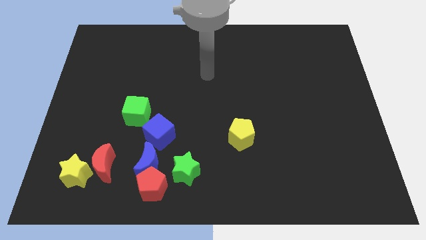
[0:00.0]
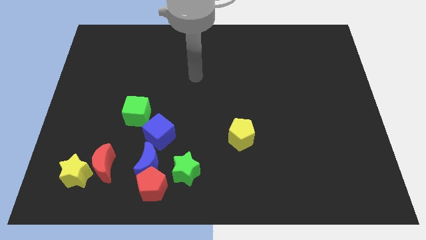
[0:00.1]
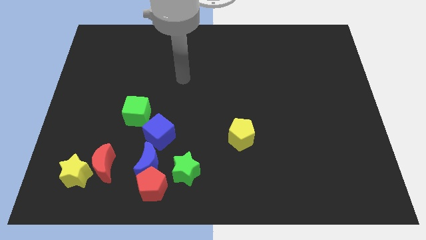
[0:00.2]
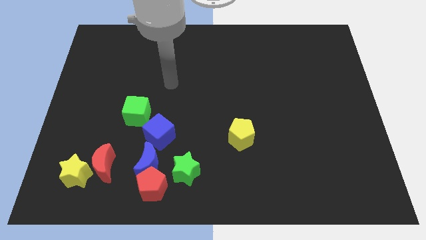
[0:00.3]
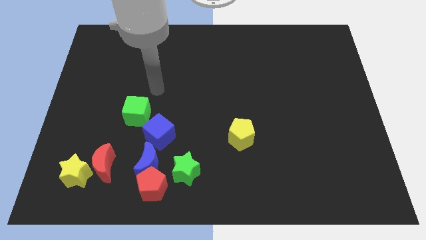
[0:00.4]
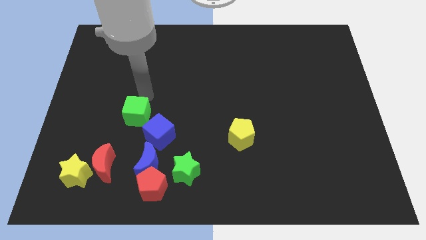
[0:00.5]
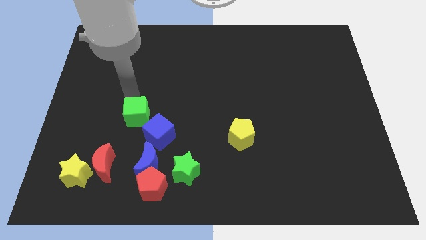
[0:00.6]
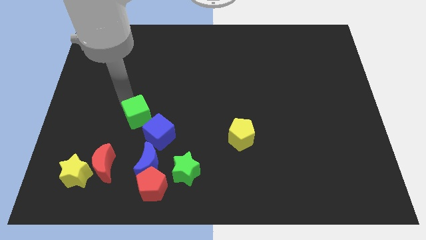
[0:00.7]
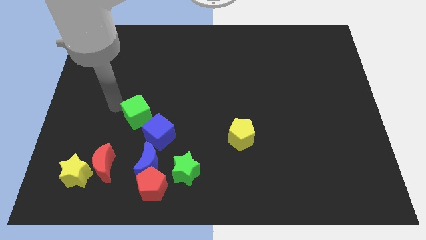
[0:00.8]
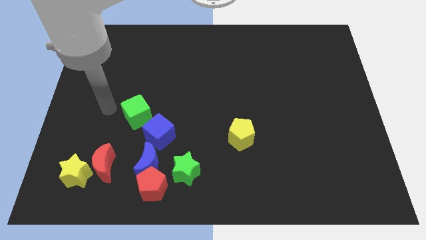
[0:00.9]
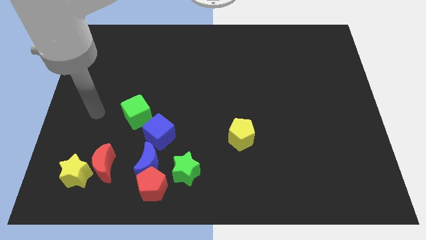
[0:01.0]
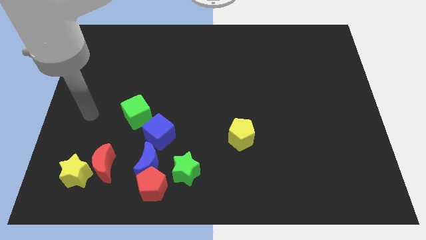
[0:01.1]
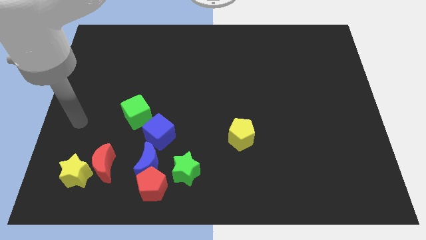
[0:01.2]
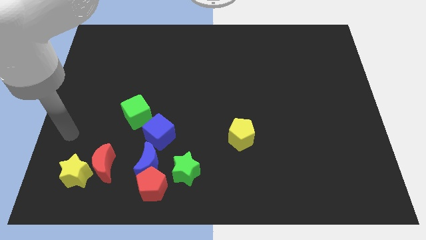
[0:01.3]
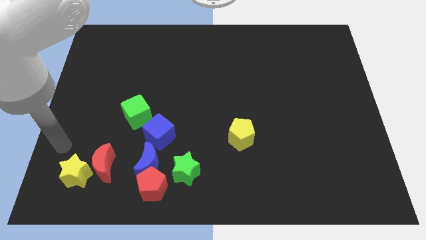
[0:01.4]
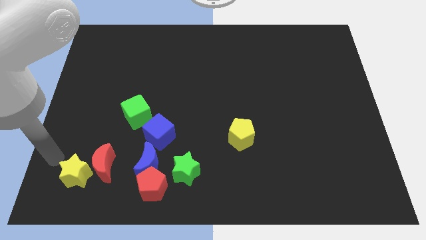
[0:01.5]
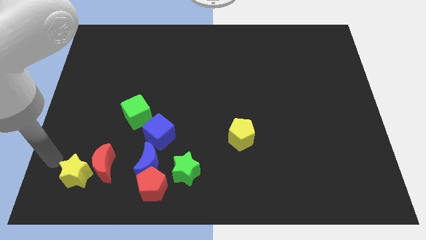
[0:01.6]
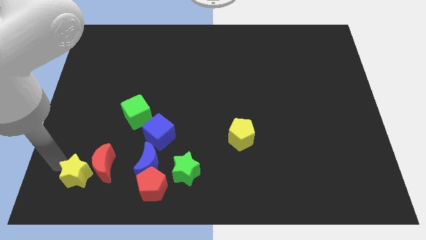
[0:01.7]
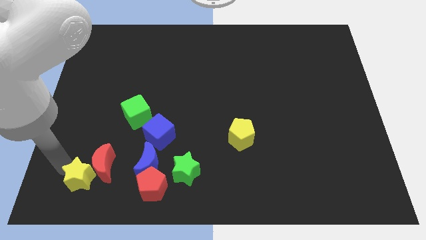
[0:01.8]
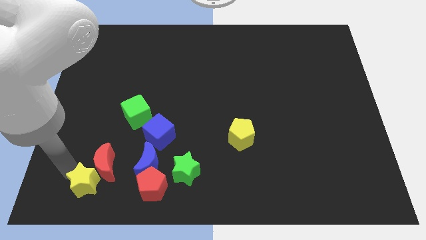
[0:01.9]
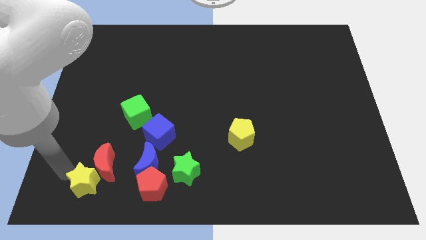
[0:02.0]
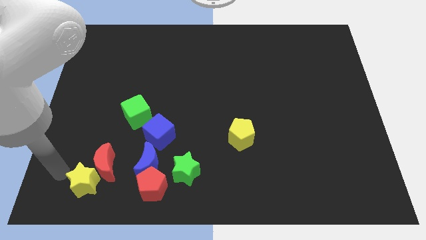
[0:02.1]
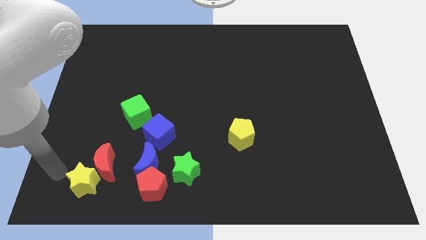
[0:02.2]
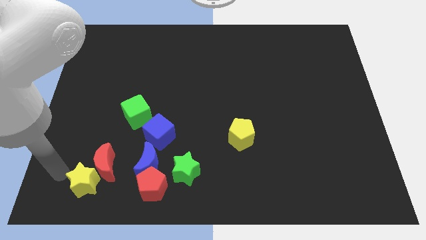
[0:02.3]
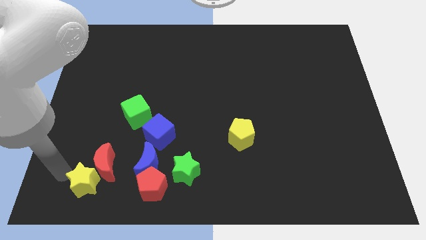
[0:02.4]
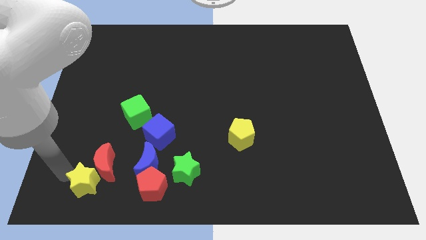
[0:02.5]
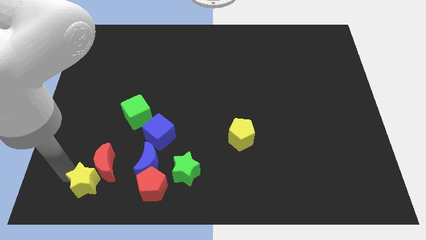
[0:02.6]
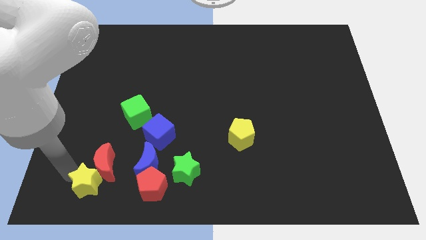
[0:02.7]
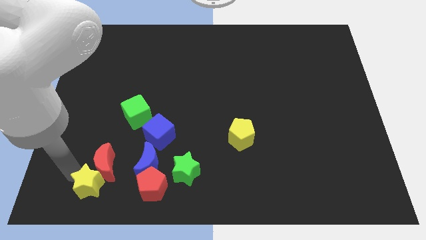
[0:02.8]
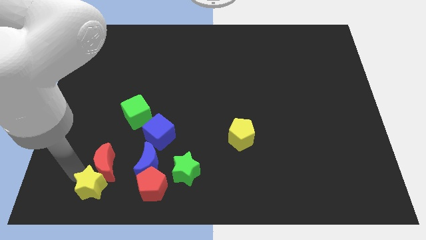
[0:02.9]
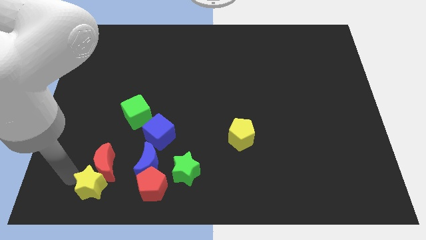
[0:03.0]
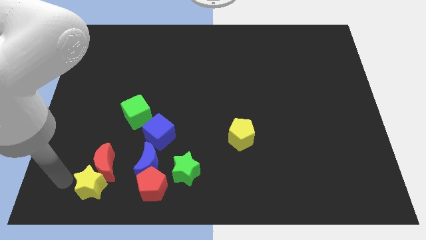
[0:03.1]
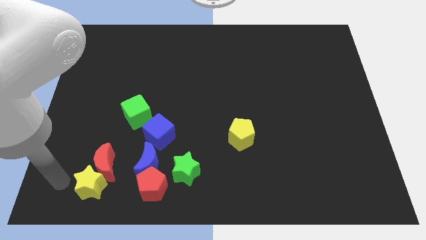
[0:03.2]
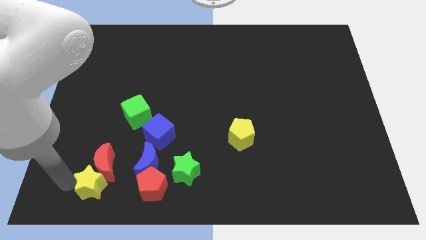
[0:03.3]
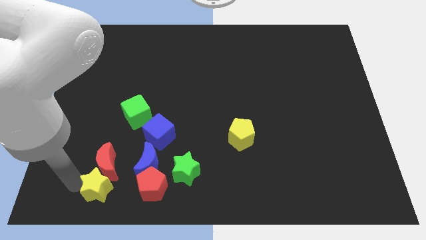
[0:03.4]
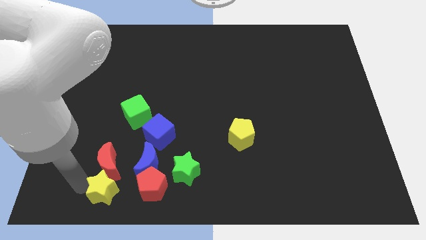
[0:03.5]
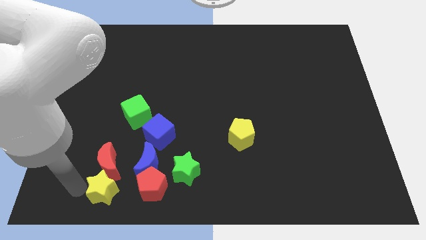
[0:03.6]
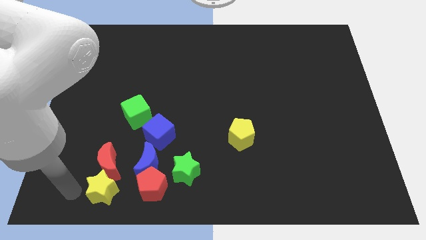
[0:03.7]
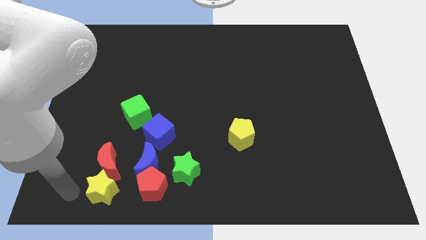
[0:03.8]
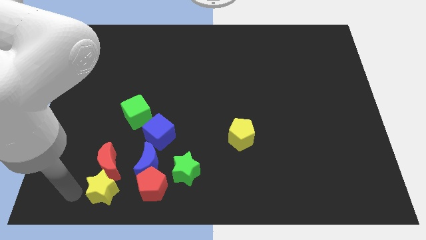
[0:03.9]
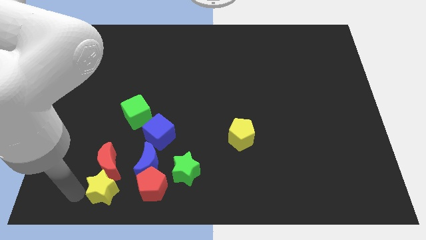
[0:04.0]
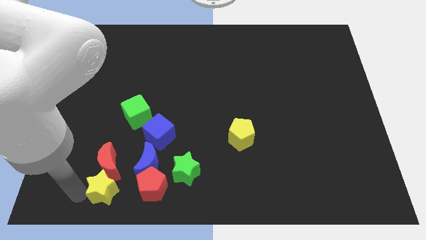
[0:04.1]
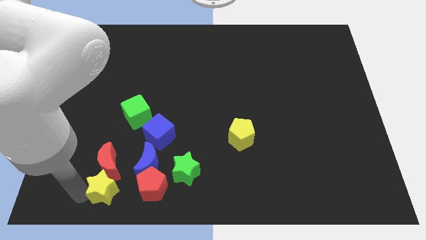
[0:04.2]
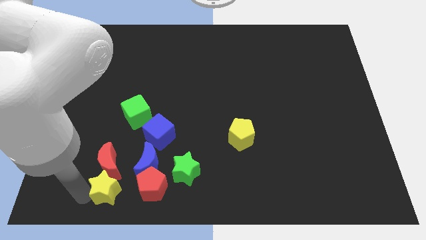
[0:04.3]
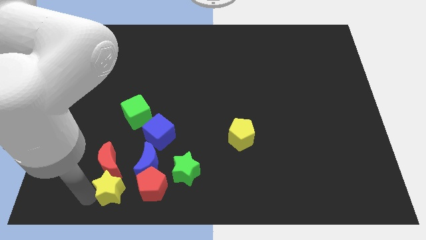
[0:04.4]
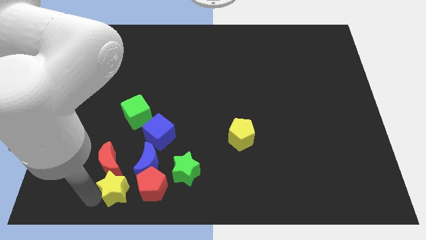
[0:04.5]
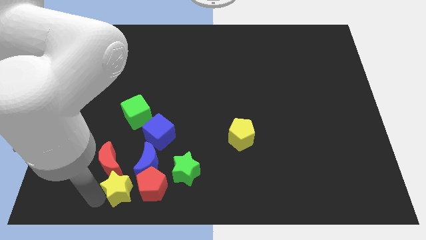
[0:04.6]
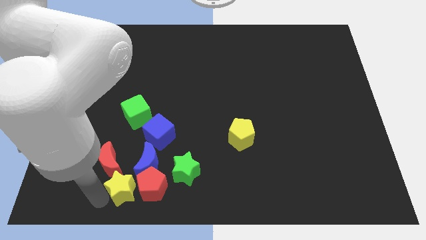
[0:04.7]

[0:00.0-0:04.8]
put the yellow star to the red pentagon

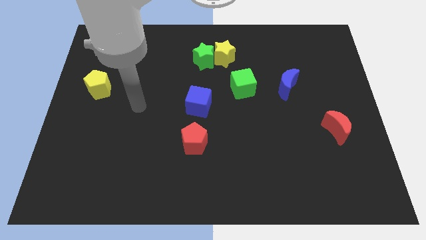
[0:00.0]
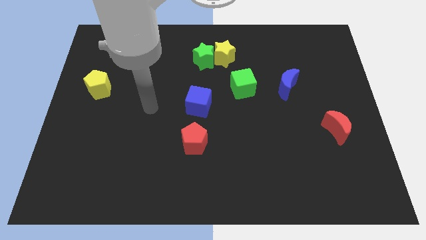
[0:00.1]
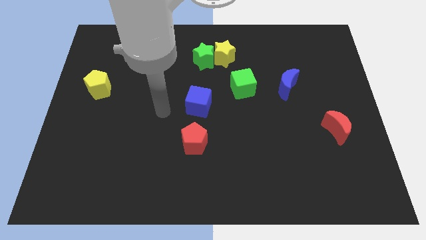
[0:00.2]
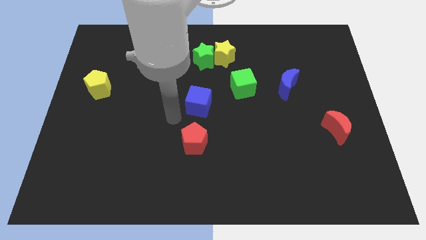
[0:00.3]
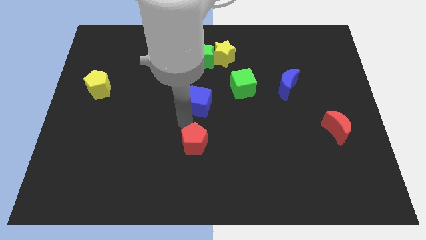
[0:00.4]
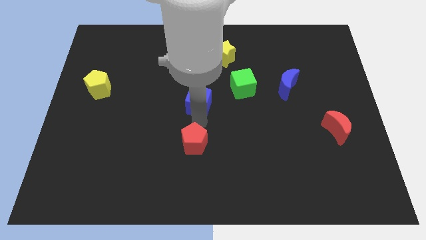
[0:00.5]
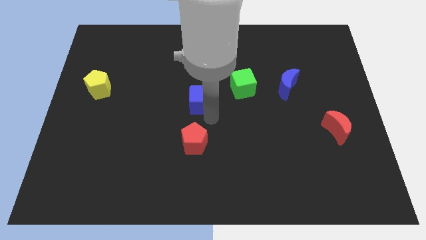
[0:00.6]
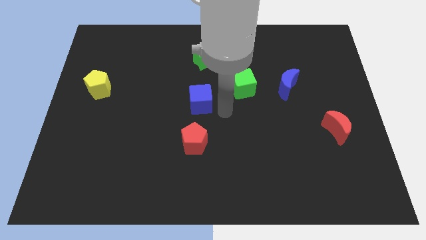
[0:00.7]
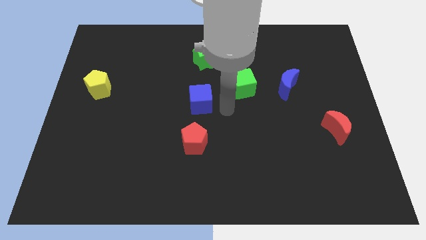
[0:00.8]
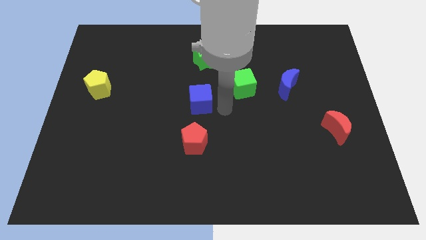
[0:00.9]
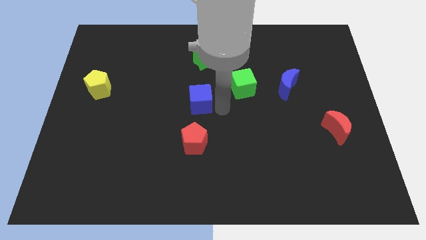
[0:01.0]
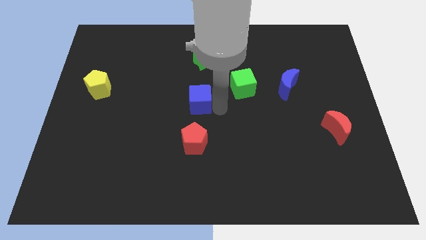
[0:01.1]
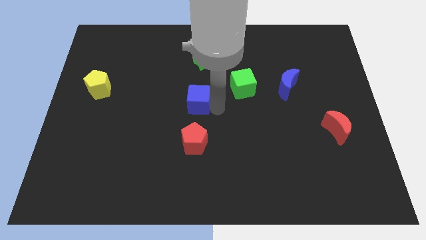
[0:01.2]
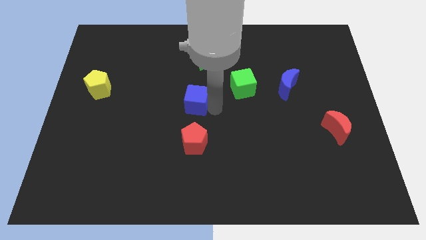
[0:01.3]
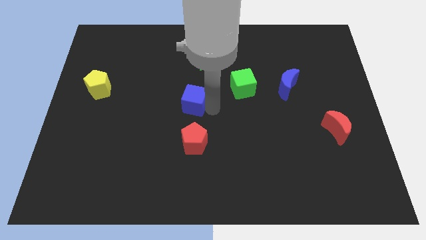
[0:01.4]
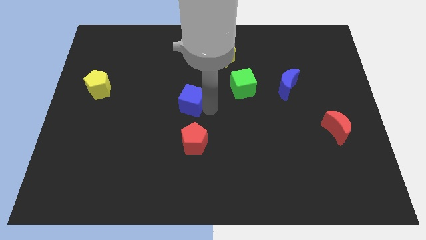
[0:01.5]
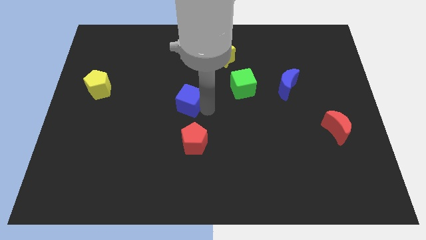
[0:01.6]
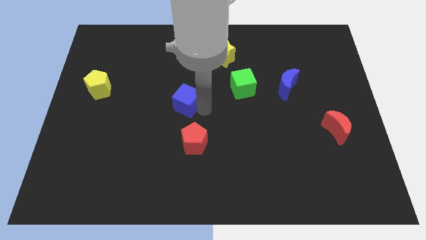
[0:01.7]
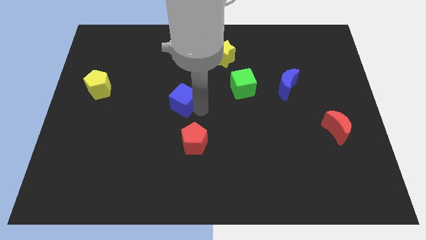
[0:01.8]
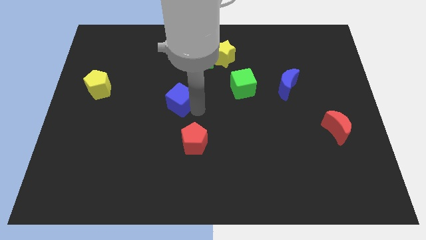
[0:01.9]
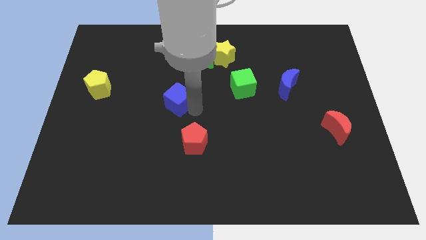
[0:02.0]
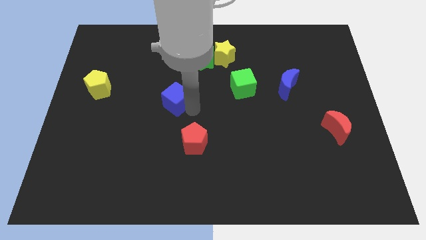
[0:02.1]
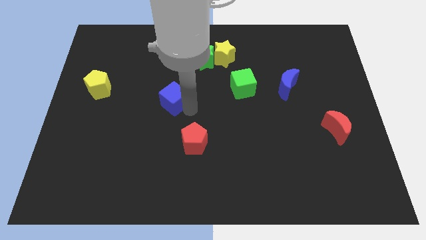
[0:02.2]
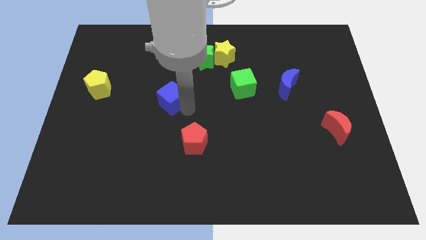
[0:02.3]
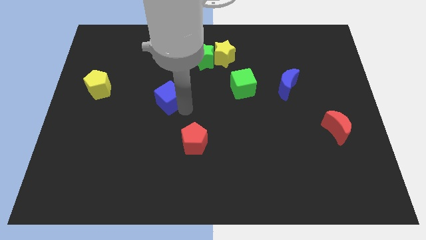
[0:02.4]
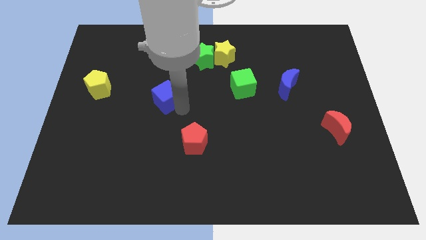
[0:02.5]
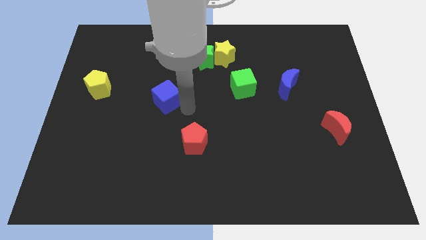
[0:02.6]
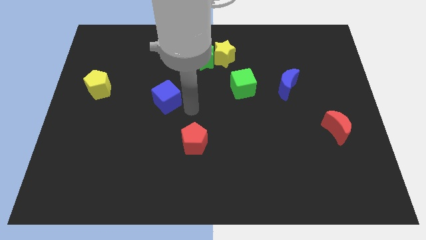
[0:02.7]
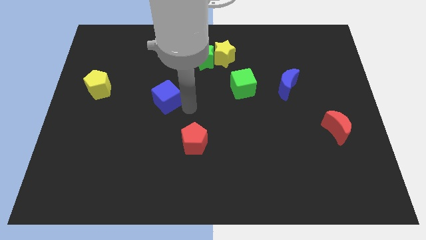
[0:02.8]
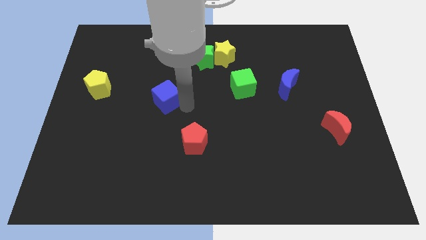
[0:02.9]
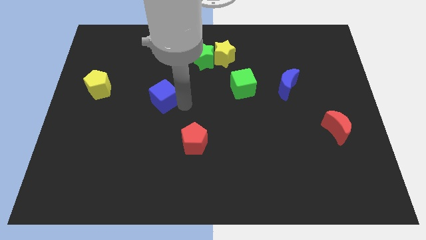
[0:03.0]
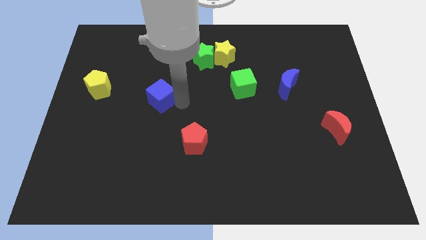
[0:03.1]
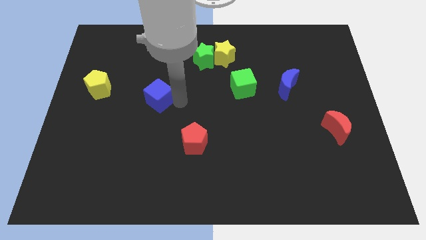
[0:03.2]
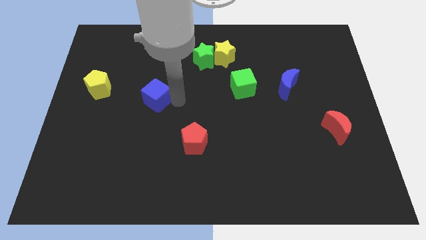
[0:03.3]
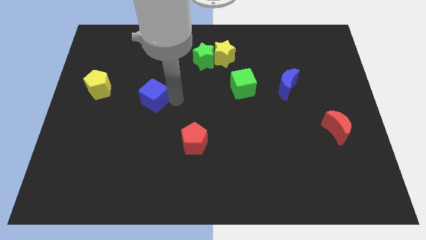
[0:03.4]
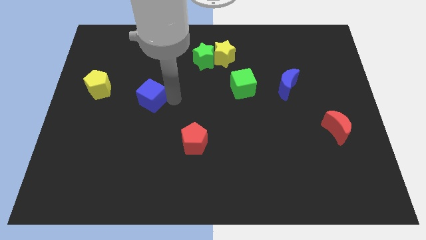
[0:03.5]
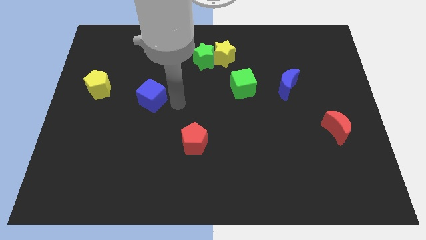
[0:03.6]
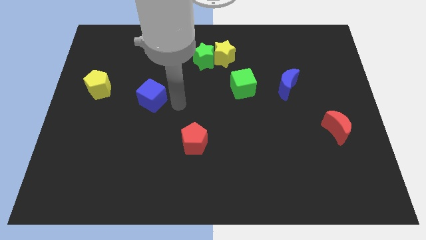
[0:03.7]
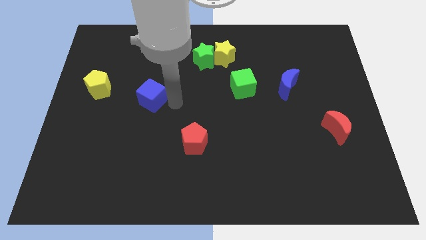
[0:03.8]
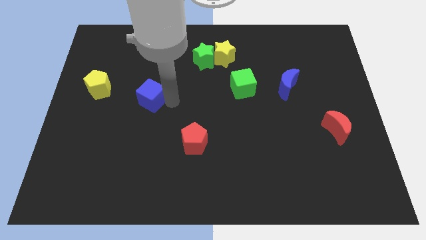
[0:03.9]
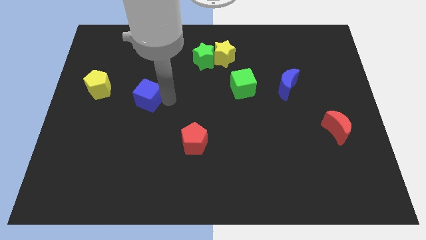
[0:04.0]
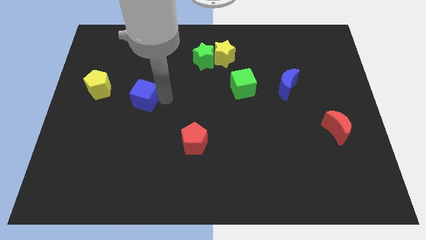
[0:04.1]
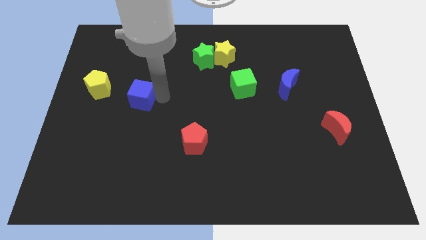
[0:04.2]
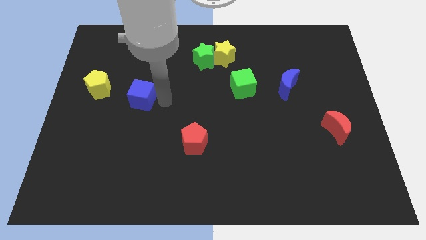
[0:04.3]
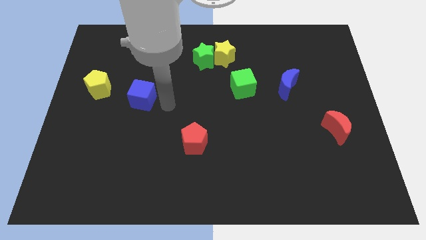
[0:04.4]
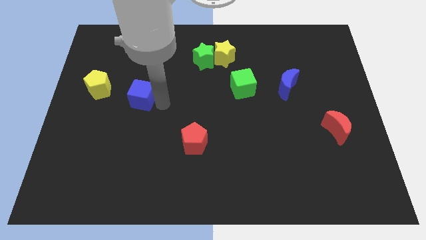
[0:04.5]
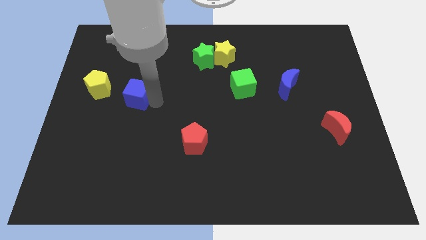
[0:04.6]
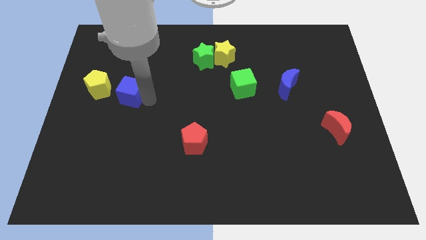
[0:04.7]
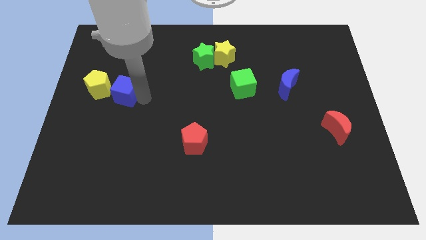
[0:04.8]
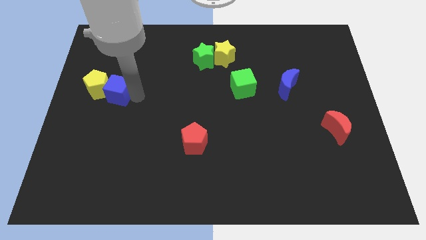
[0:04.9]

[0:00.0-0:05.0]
move the blue cube to the yellow pentagon
